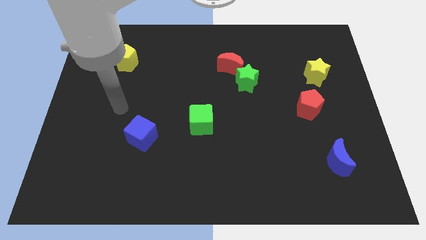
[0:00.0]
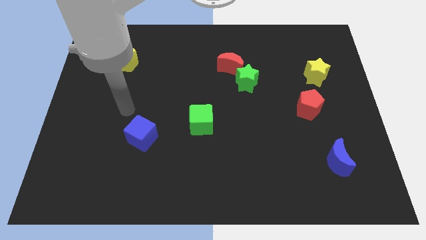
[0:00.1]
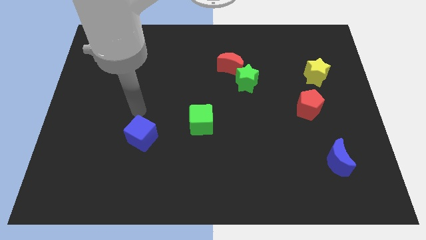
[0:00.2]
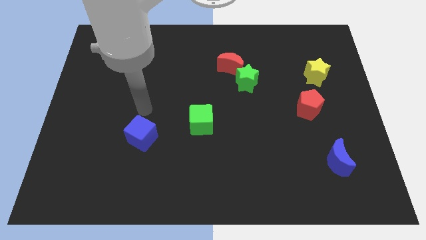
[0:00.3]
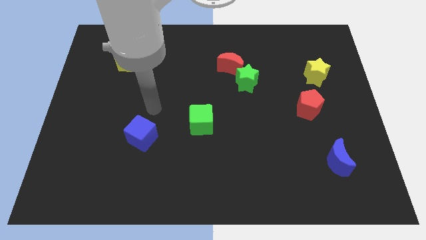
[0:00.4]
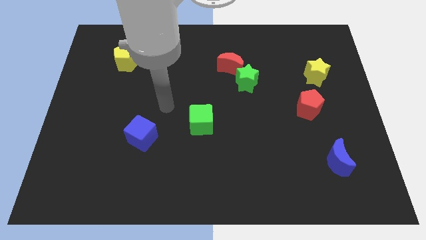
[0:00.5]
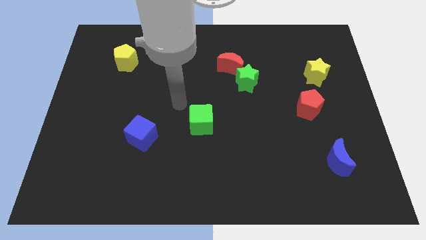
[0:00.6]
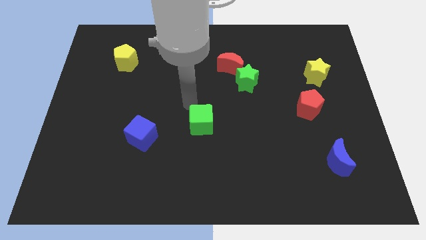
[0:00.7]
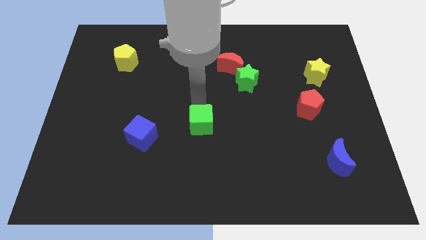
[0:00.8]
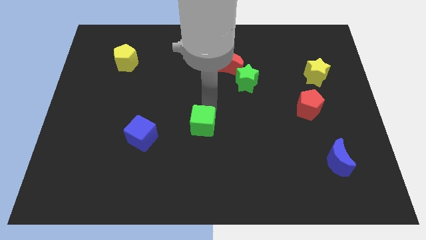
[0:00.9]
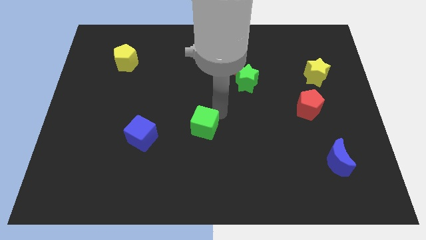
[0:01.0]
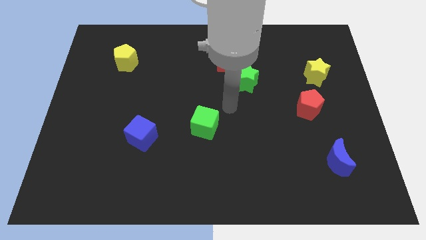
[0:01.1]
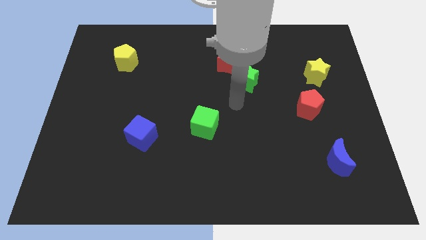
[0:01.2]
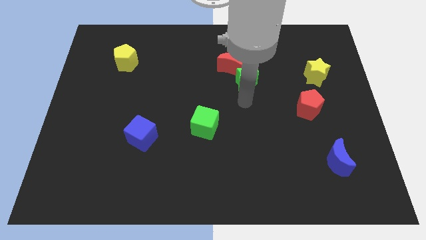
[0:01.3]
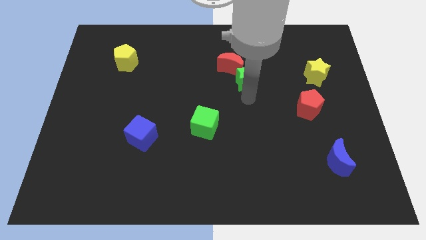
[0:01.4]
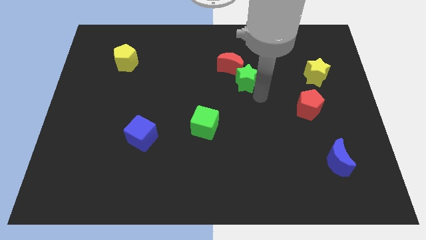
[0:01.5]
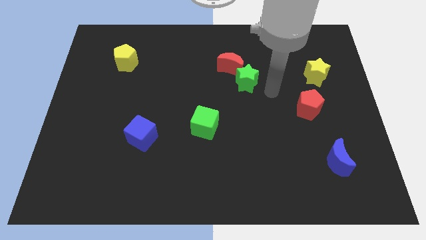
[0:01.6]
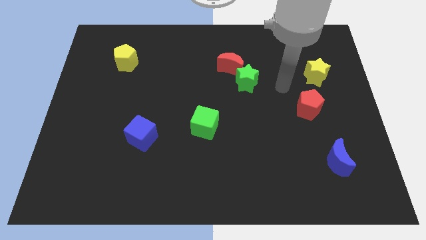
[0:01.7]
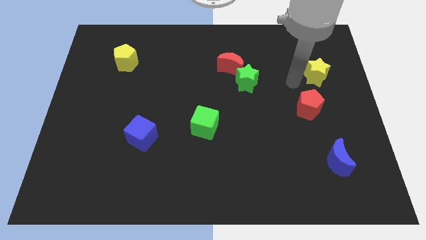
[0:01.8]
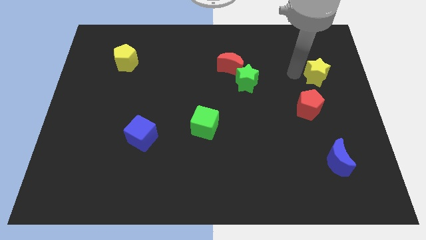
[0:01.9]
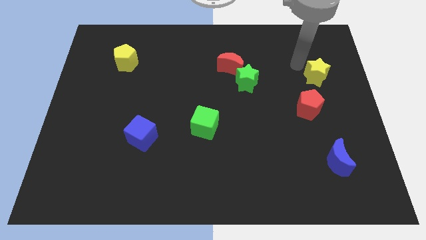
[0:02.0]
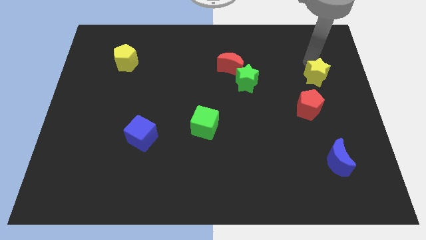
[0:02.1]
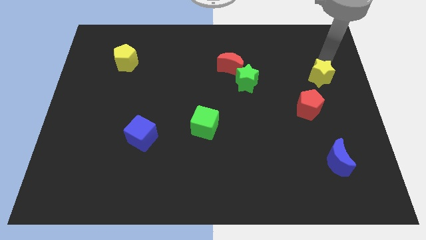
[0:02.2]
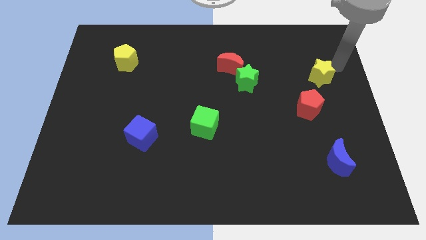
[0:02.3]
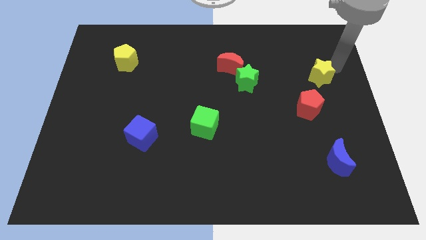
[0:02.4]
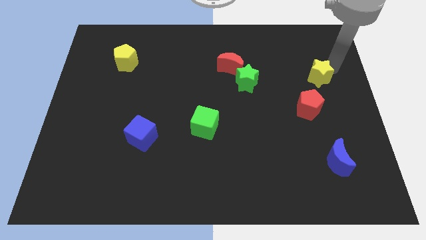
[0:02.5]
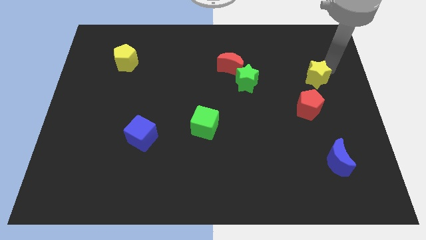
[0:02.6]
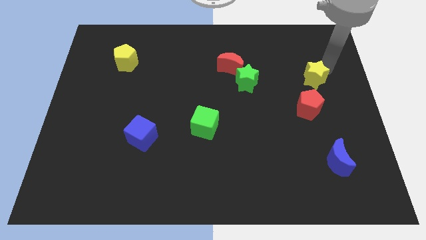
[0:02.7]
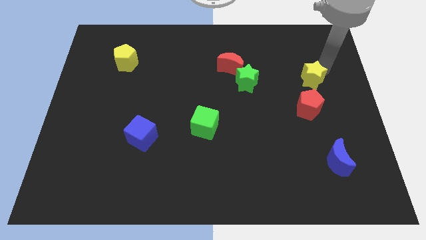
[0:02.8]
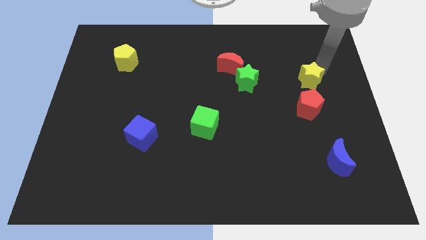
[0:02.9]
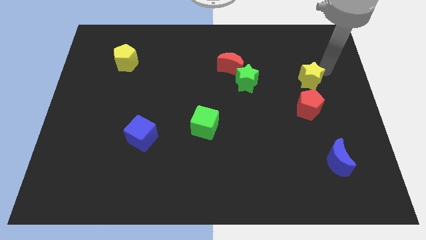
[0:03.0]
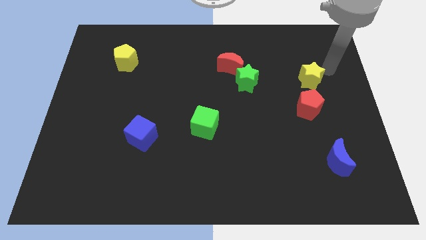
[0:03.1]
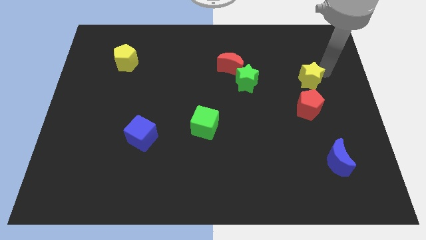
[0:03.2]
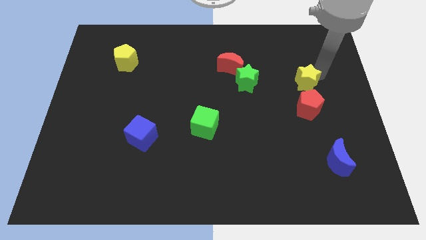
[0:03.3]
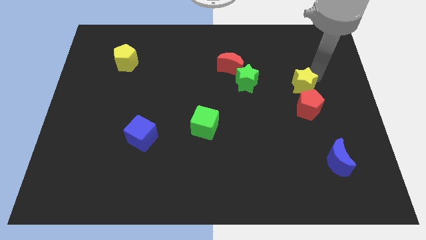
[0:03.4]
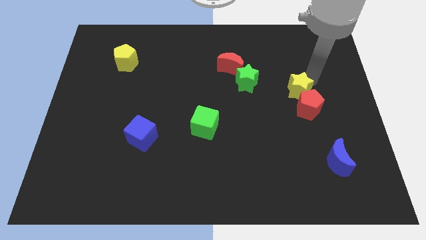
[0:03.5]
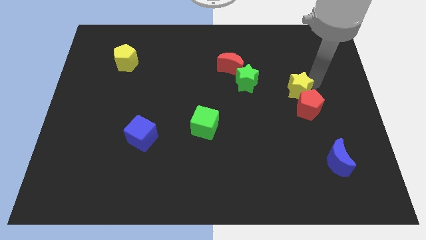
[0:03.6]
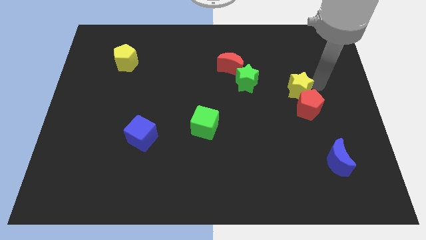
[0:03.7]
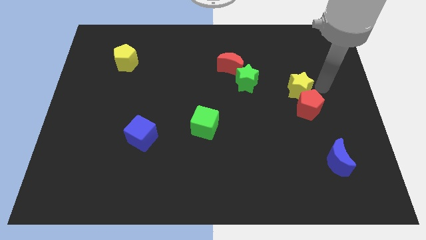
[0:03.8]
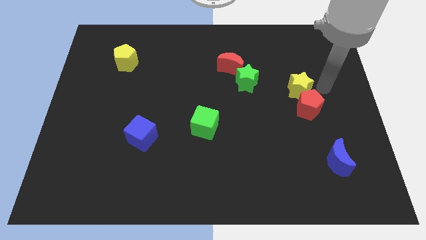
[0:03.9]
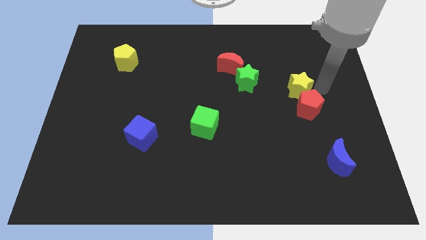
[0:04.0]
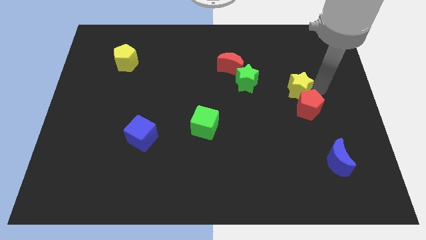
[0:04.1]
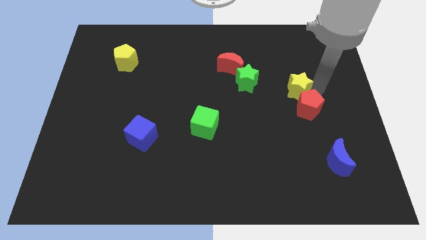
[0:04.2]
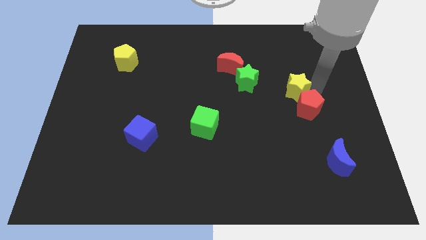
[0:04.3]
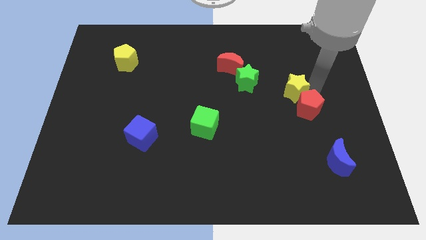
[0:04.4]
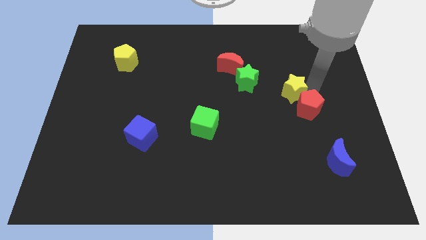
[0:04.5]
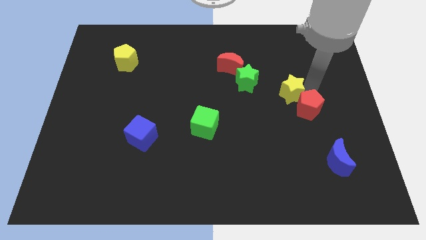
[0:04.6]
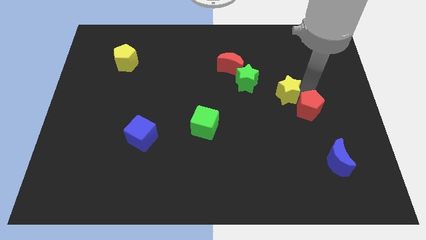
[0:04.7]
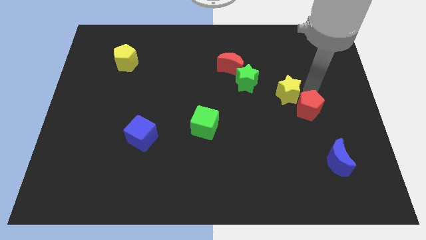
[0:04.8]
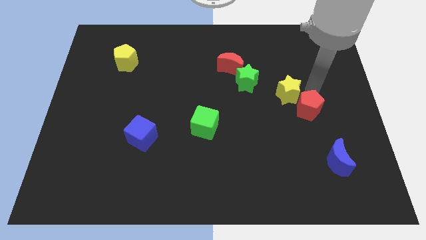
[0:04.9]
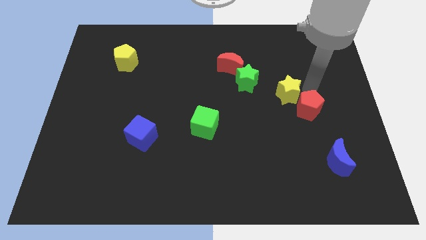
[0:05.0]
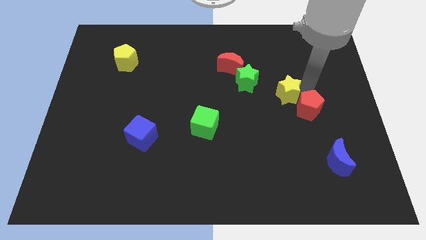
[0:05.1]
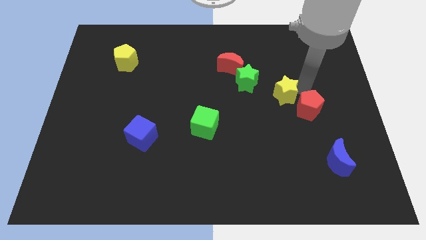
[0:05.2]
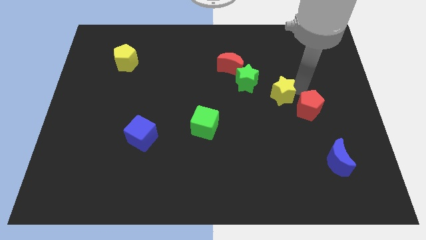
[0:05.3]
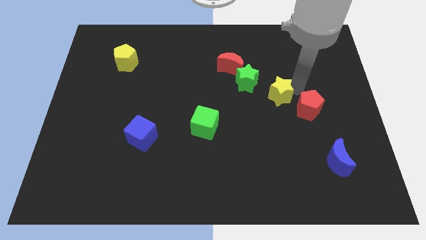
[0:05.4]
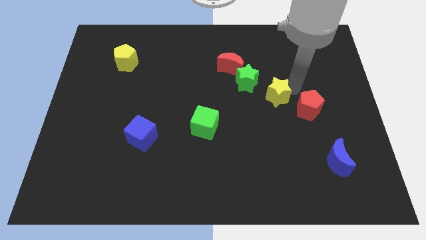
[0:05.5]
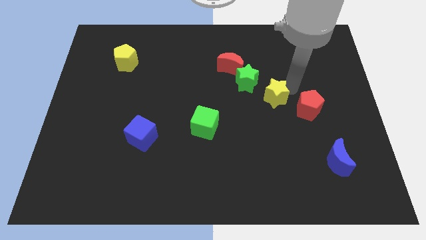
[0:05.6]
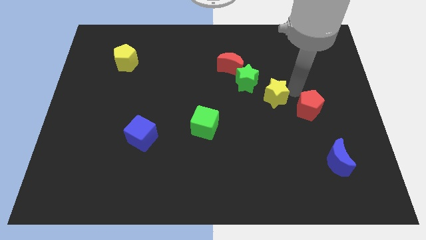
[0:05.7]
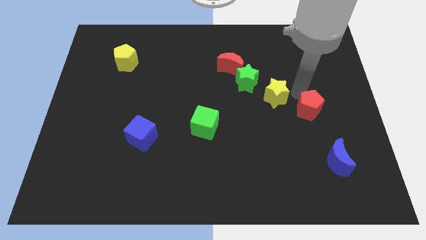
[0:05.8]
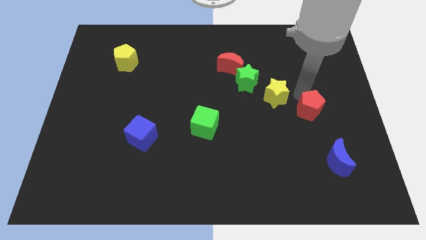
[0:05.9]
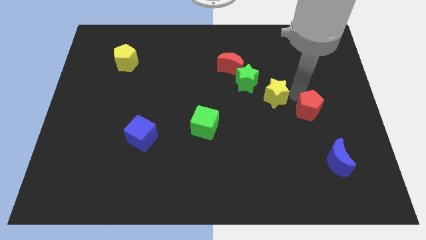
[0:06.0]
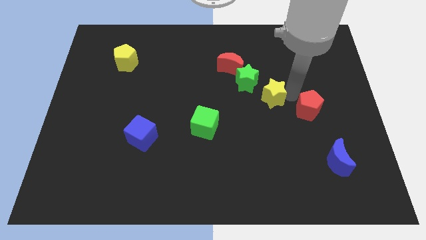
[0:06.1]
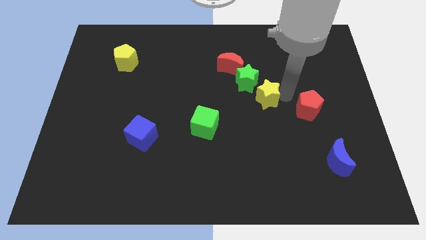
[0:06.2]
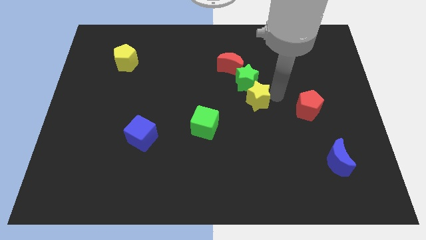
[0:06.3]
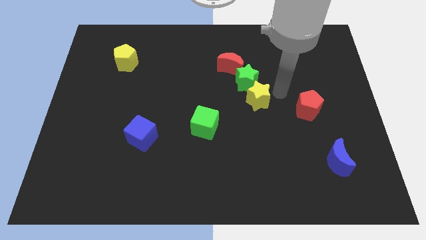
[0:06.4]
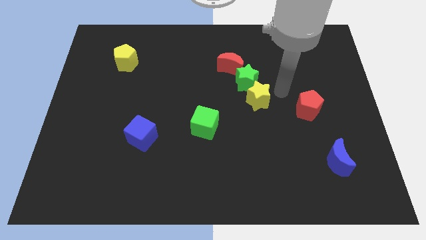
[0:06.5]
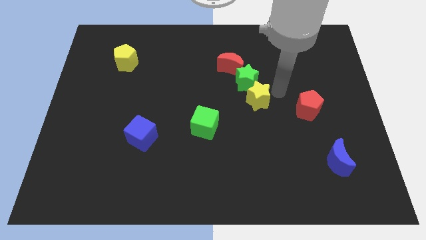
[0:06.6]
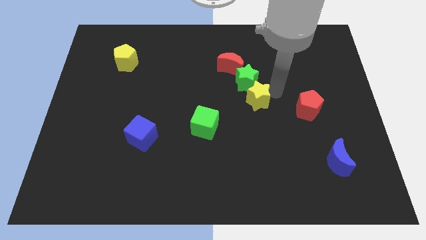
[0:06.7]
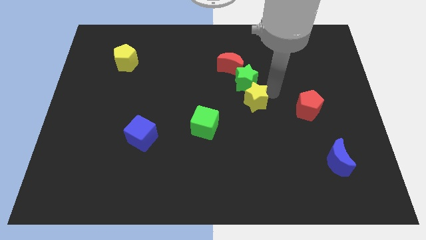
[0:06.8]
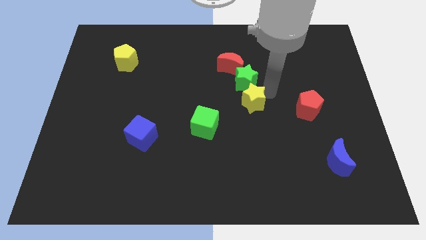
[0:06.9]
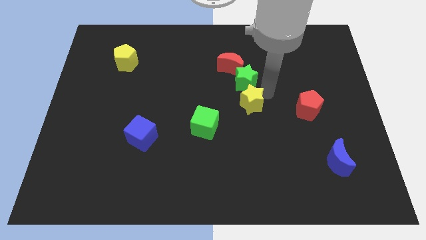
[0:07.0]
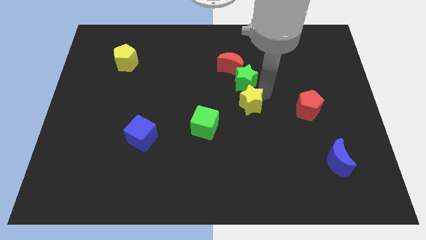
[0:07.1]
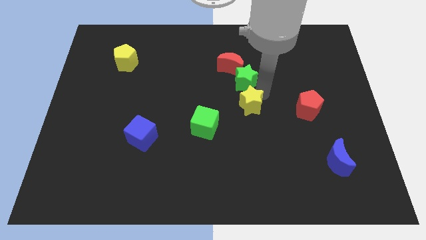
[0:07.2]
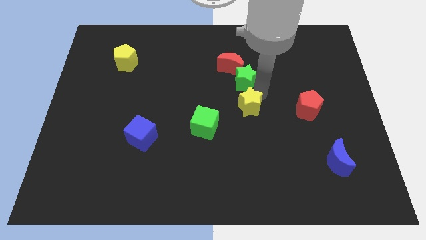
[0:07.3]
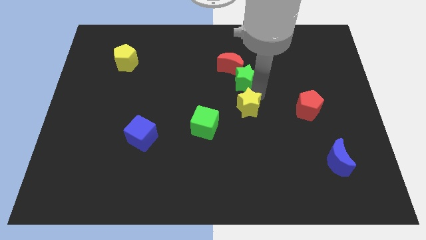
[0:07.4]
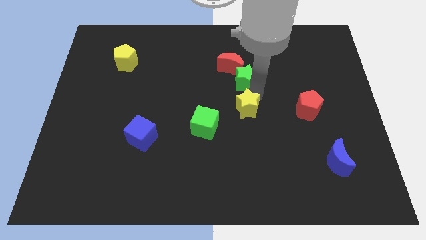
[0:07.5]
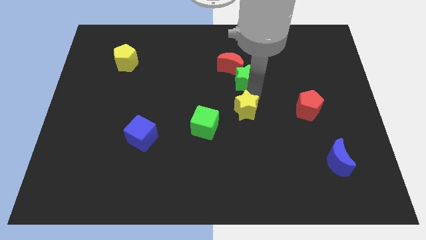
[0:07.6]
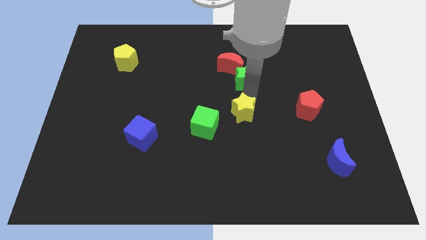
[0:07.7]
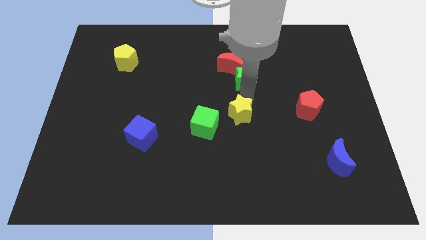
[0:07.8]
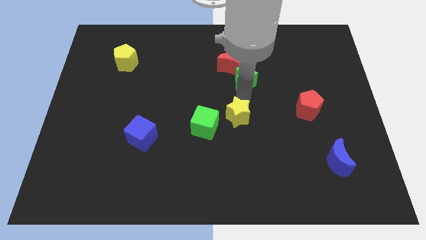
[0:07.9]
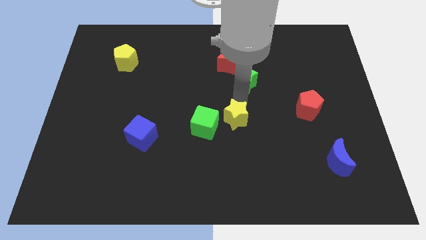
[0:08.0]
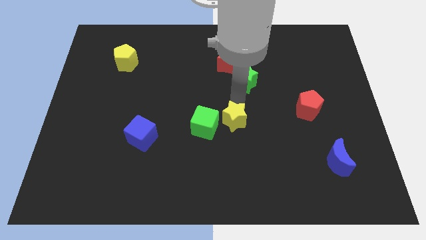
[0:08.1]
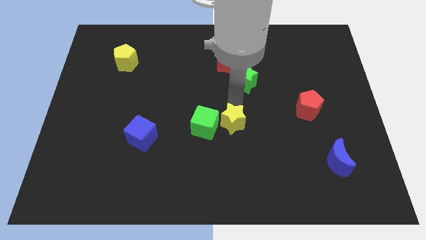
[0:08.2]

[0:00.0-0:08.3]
push the yellow star to the green cube
